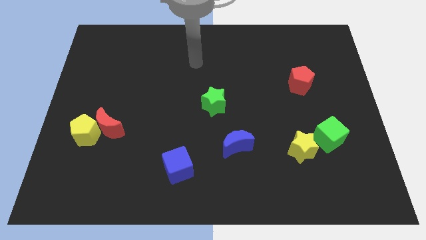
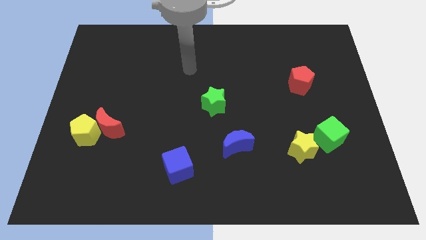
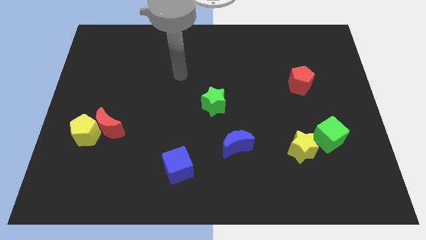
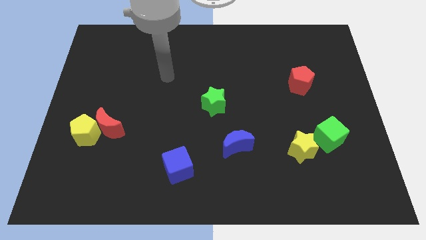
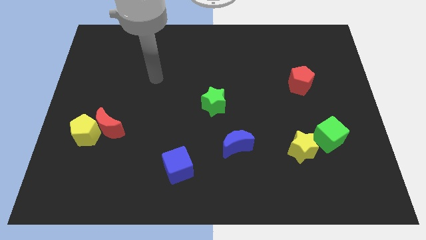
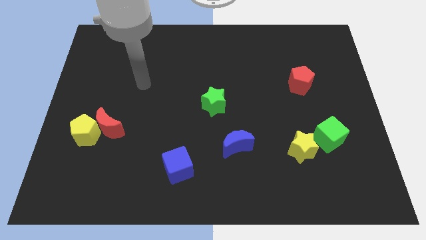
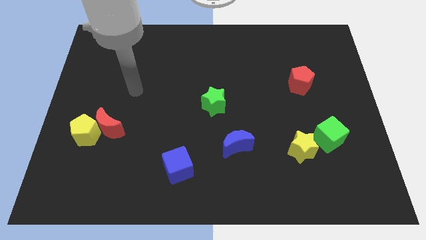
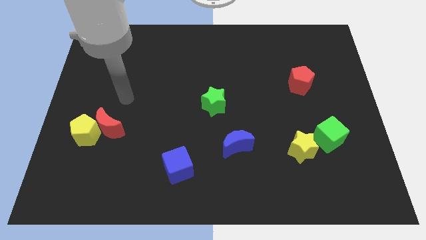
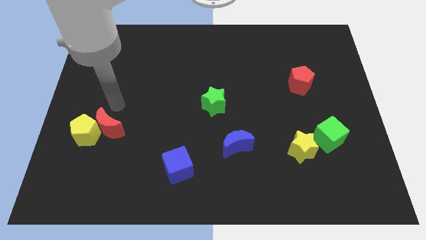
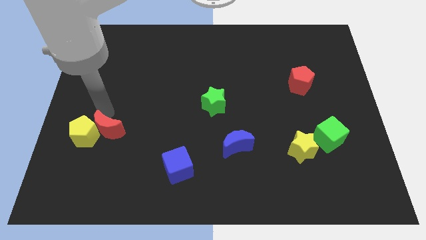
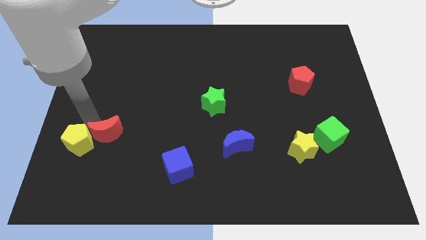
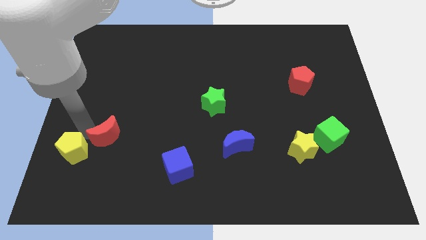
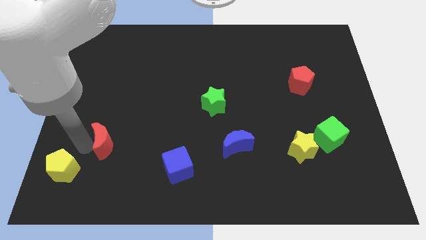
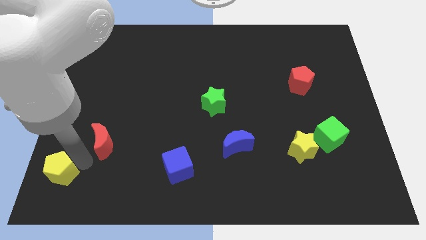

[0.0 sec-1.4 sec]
separate the red moon from the yellow pentagon

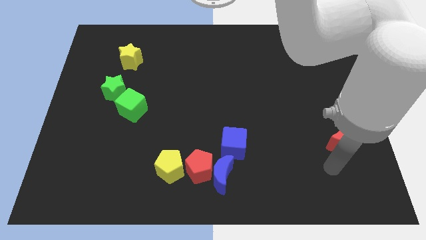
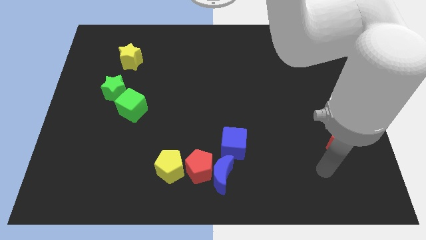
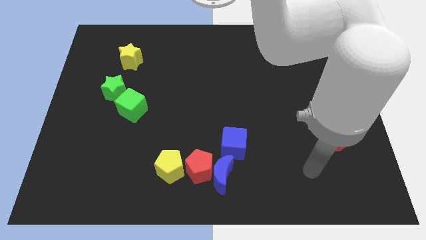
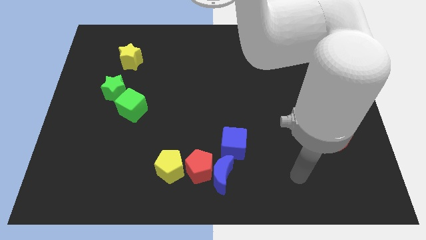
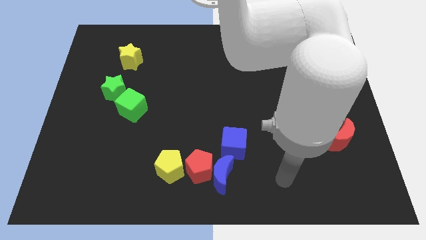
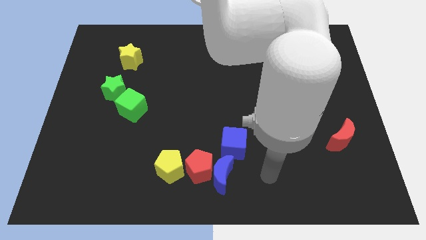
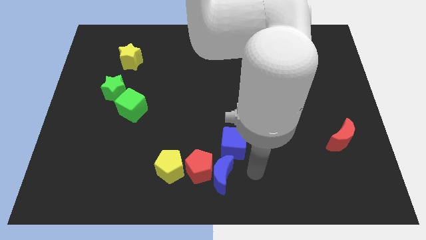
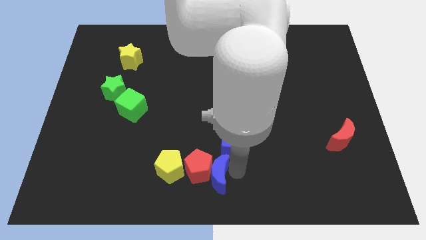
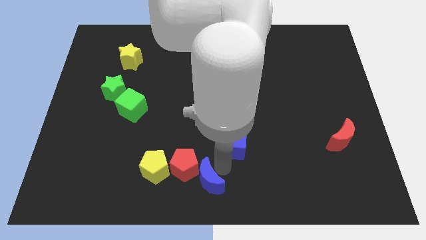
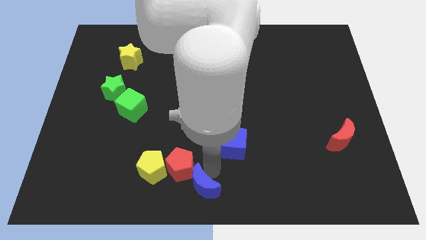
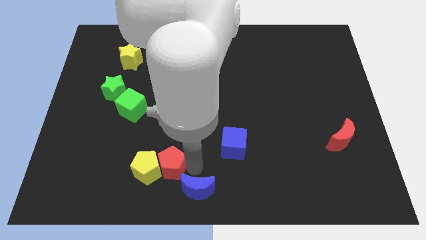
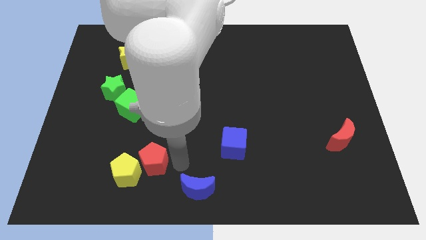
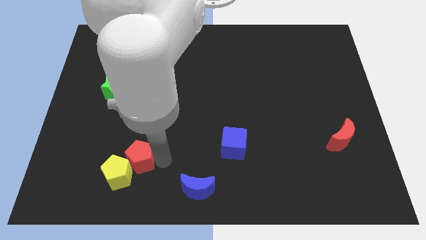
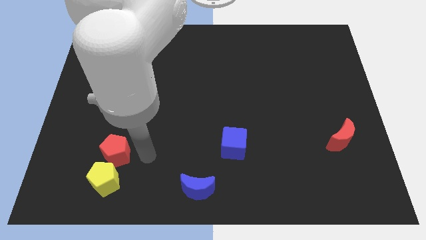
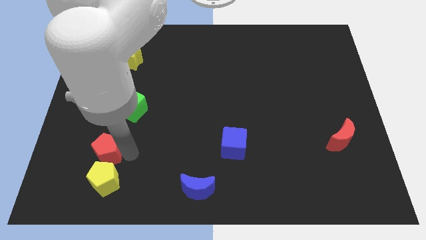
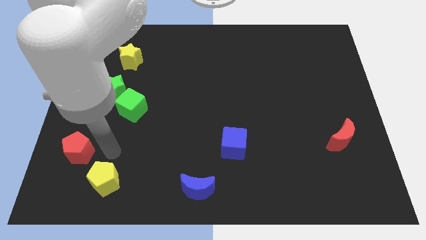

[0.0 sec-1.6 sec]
move the yellow pentagon away from the red pentagon

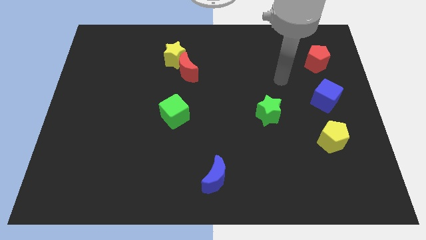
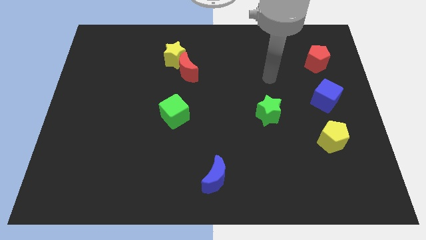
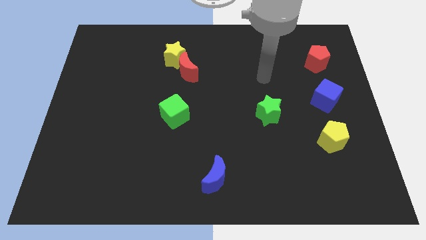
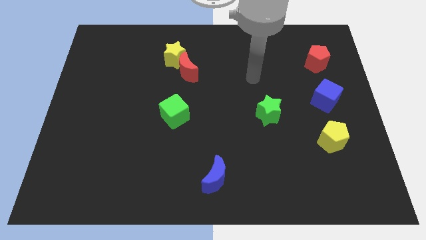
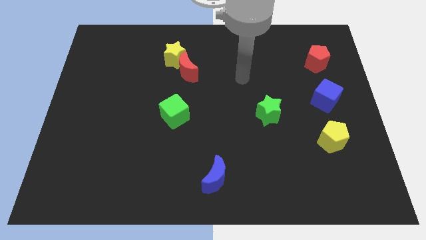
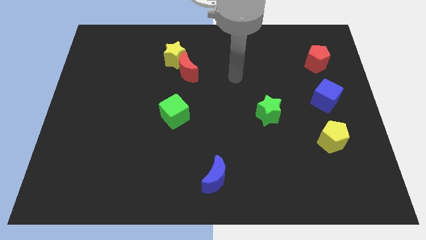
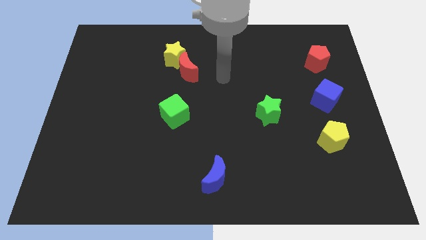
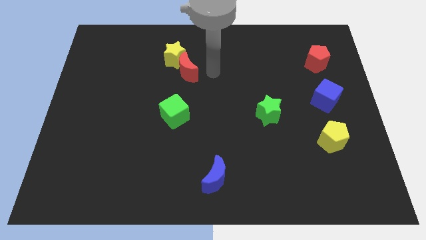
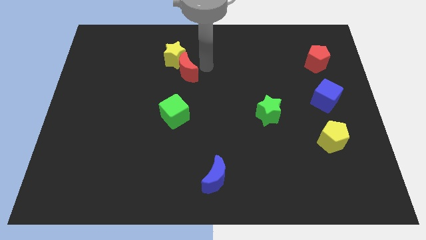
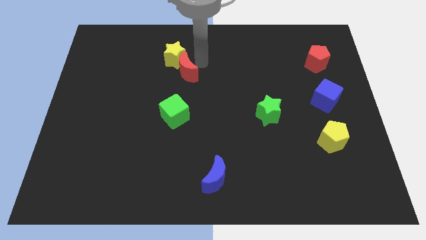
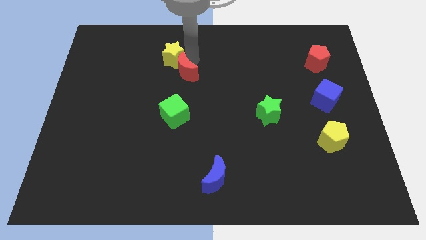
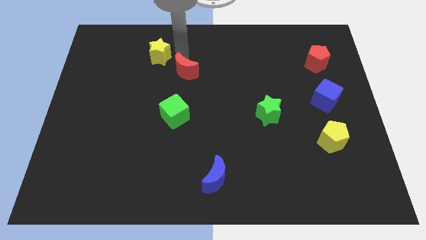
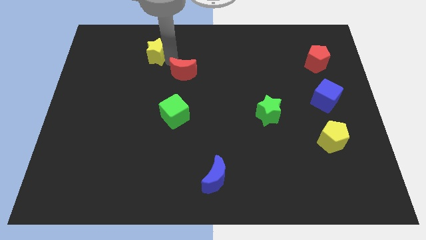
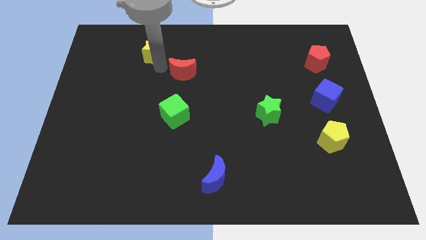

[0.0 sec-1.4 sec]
move the red moon away from the yellow star

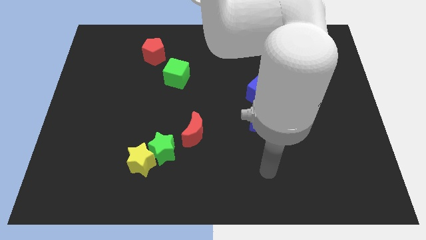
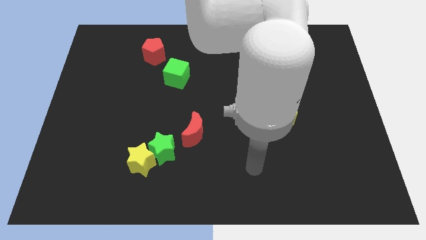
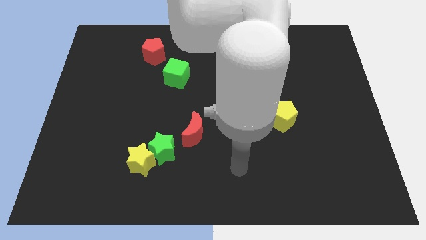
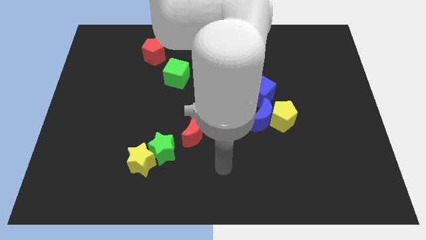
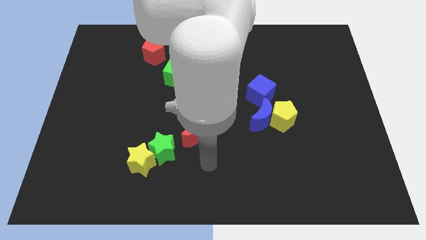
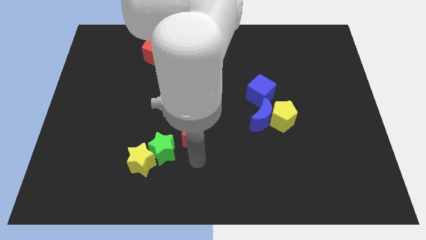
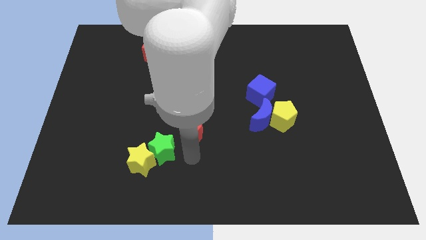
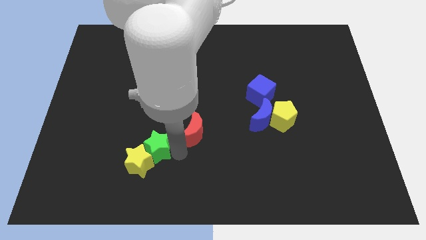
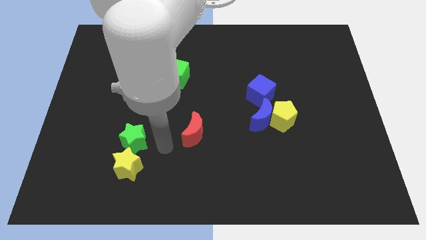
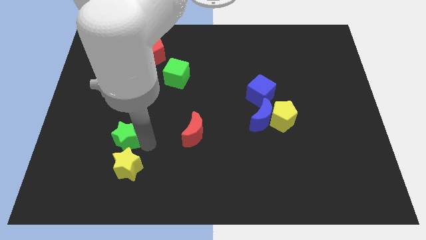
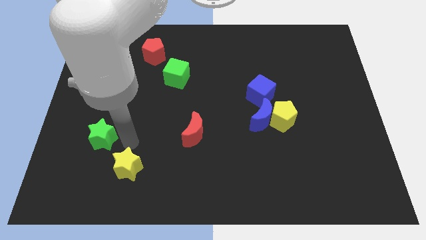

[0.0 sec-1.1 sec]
move the yellow star away from the green star

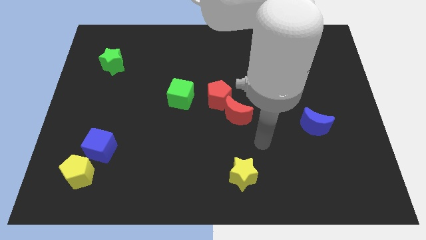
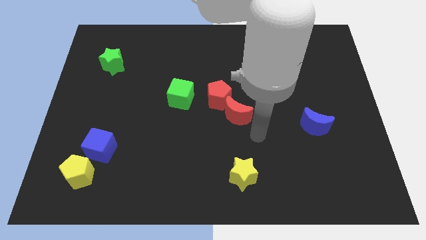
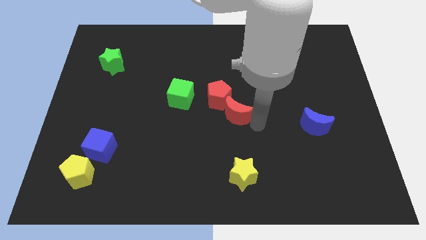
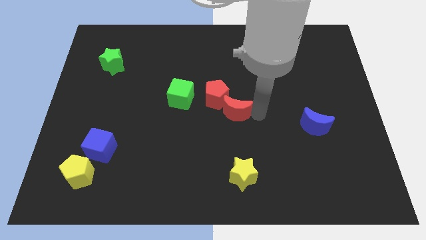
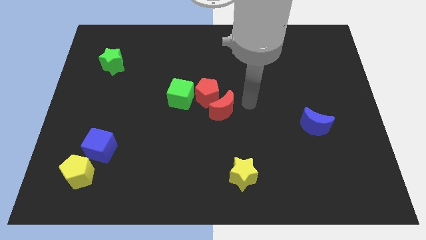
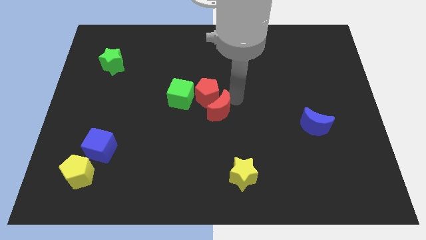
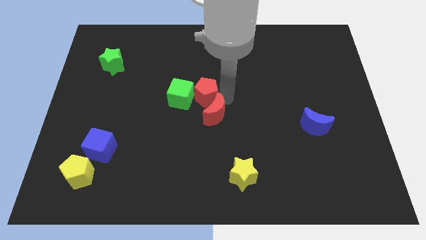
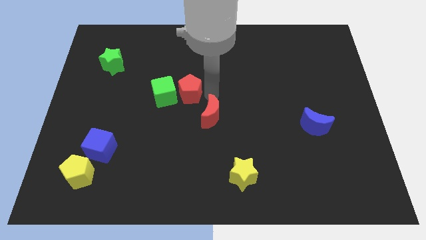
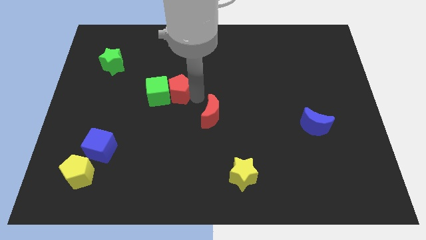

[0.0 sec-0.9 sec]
pull the red moon apart from the red pentagon

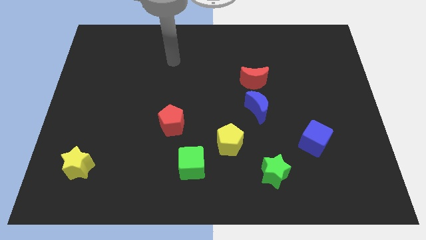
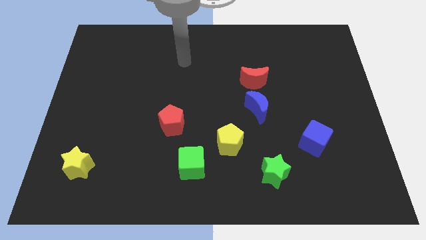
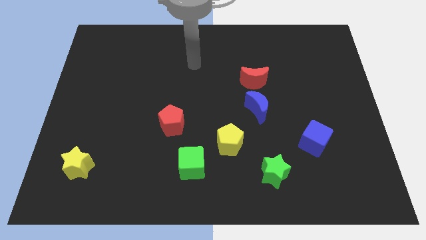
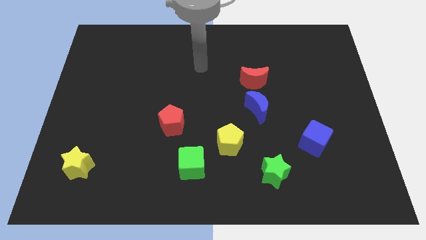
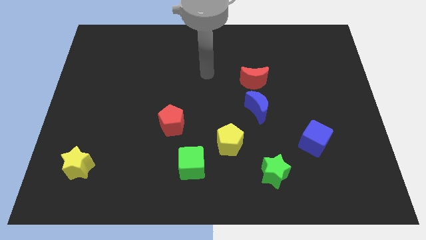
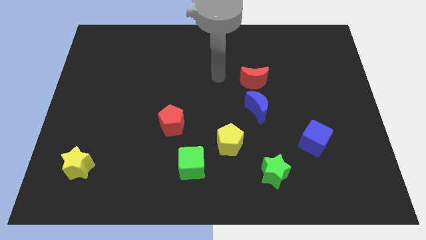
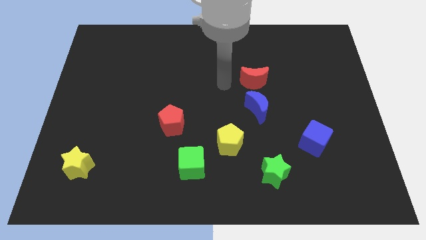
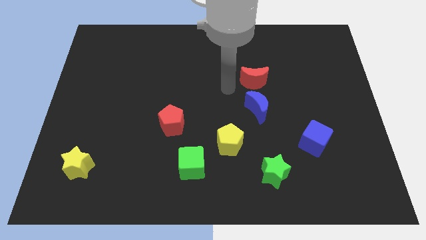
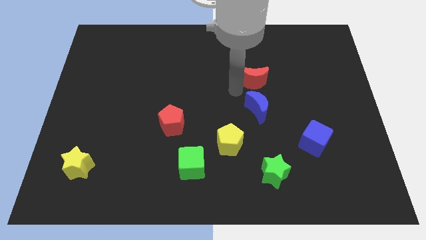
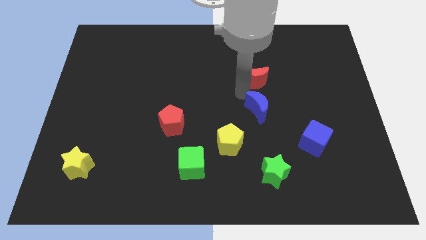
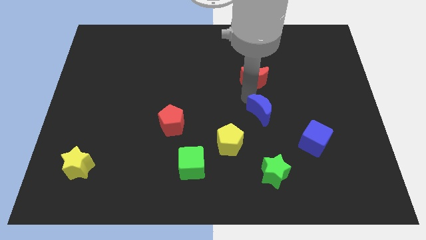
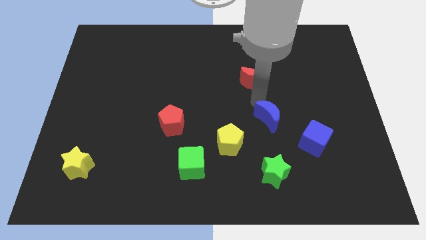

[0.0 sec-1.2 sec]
separate the red moon from the blue moon

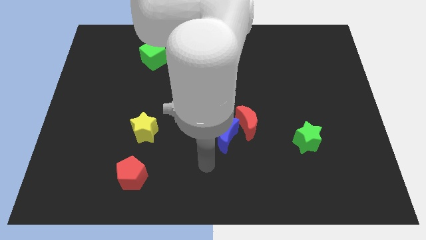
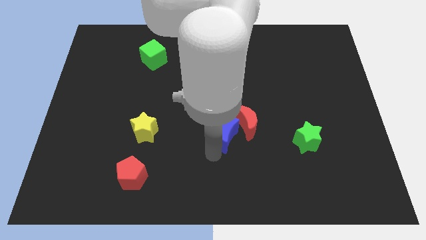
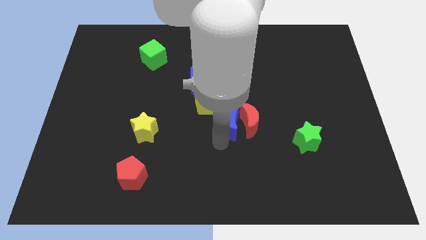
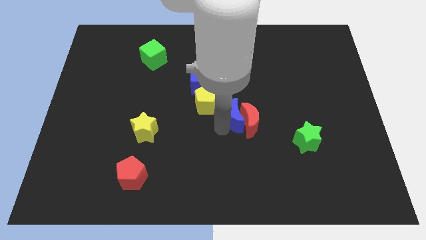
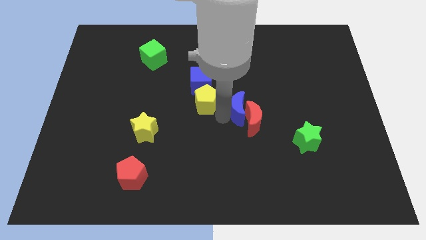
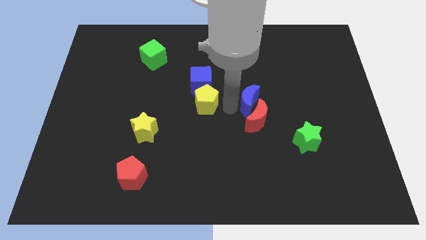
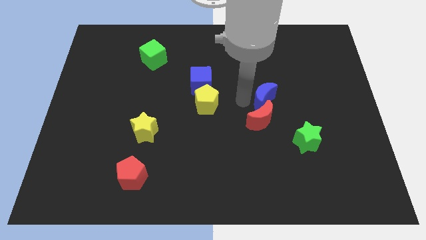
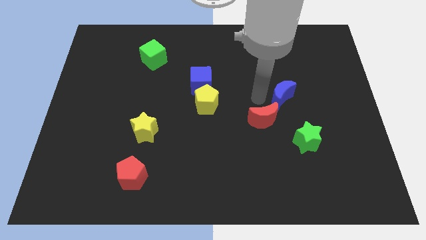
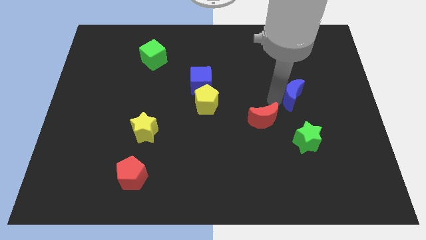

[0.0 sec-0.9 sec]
move the red moon away from the blue moon

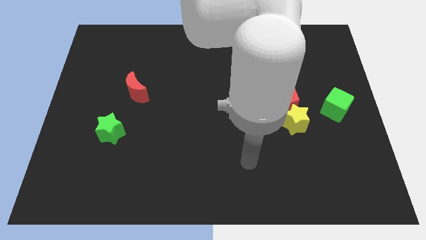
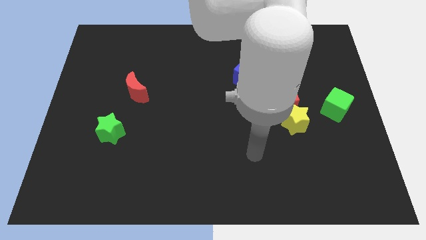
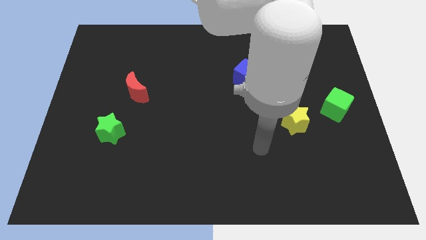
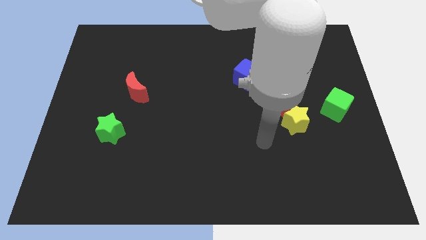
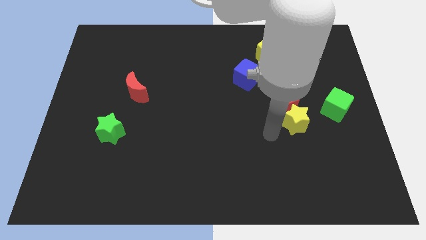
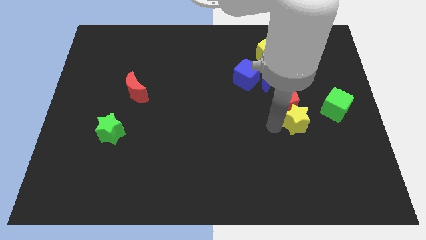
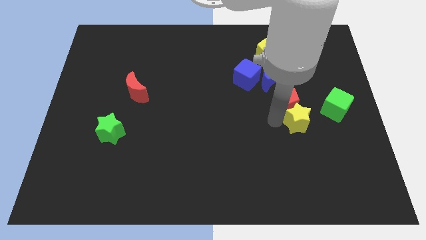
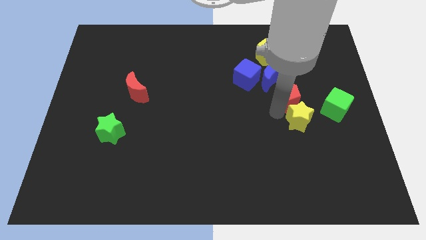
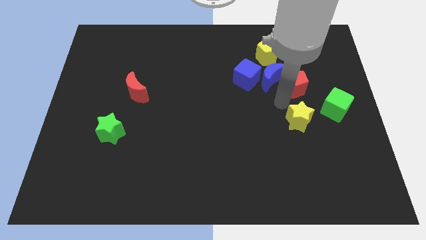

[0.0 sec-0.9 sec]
pull the yellow star apart from the red pentagon
